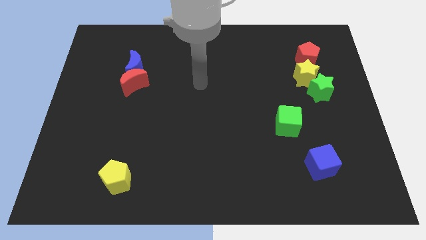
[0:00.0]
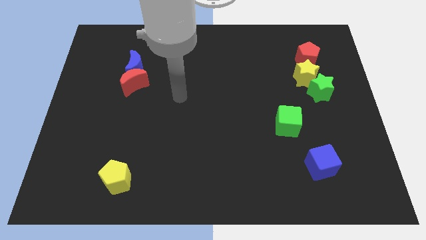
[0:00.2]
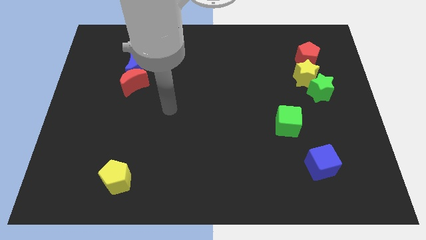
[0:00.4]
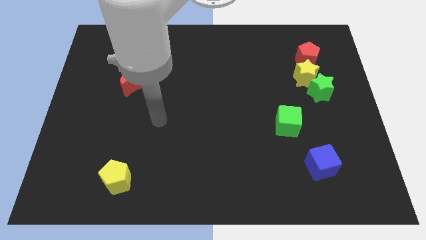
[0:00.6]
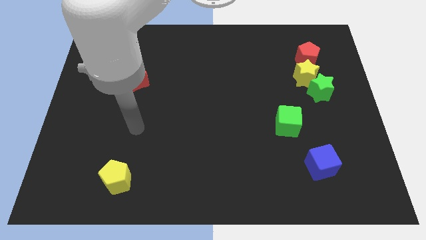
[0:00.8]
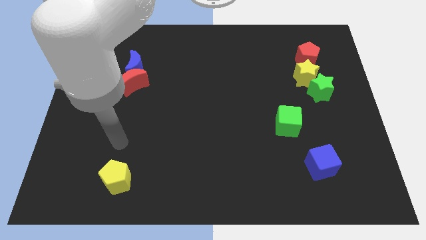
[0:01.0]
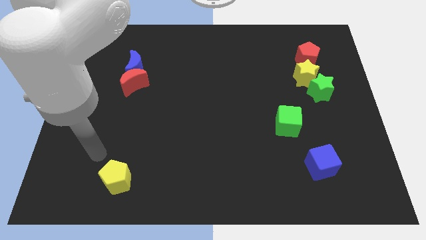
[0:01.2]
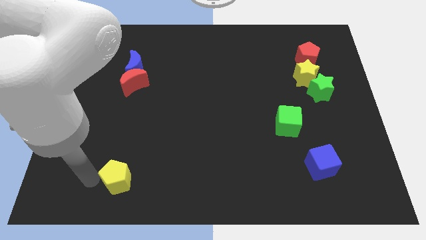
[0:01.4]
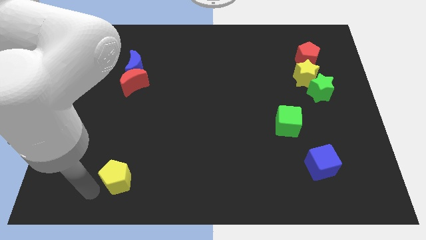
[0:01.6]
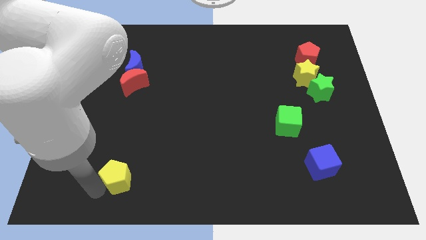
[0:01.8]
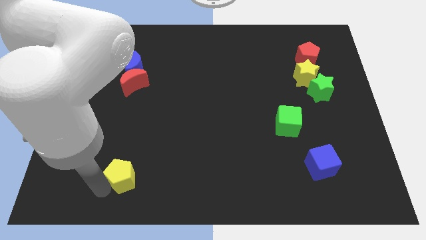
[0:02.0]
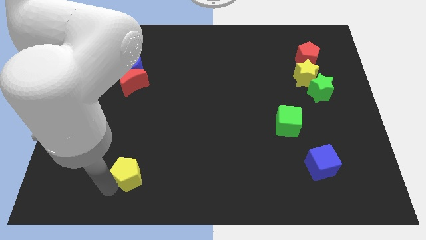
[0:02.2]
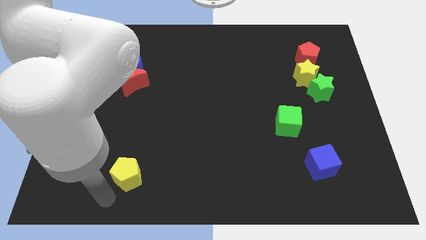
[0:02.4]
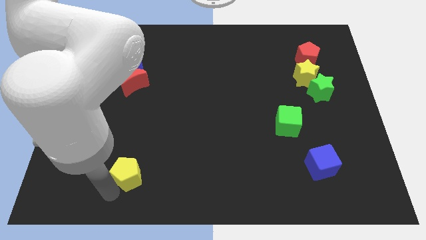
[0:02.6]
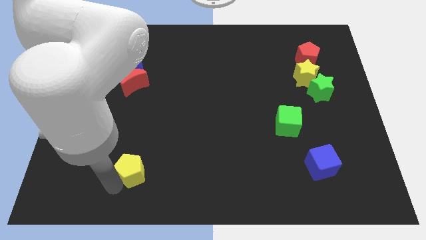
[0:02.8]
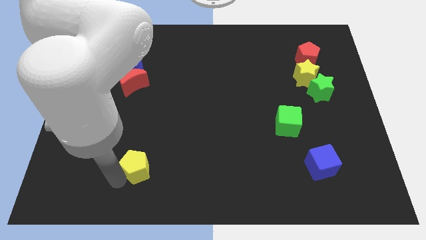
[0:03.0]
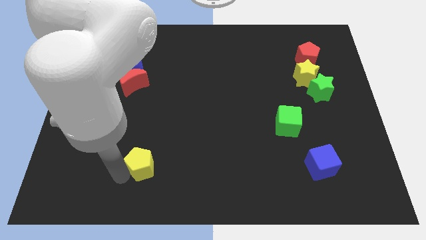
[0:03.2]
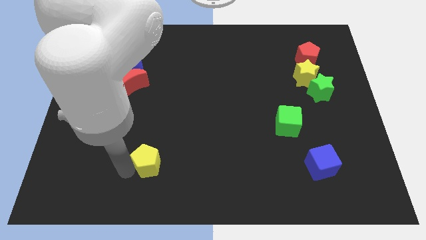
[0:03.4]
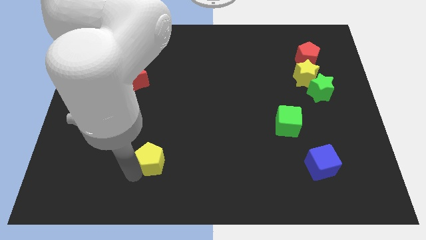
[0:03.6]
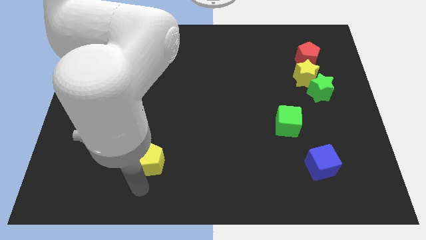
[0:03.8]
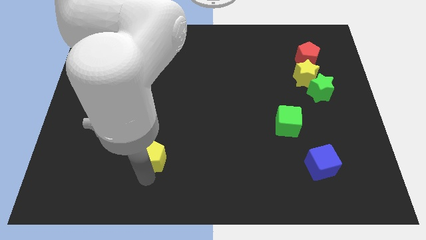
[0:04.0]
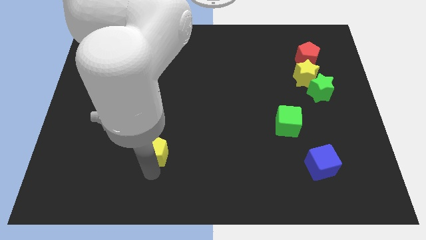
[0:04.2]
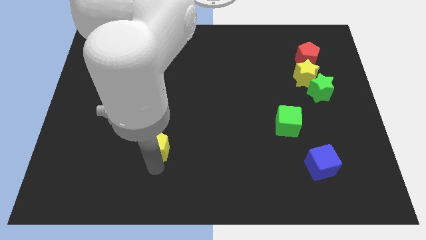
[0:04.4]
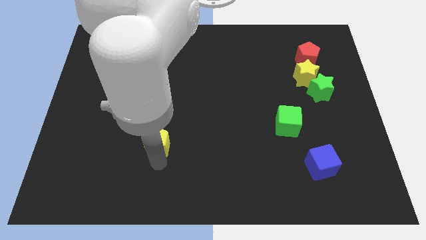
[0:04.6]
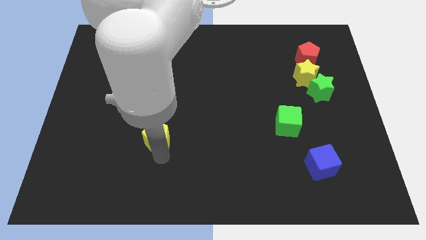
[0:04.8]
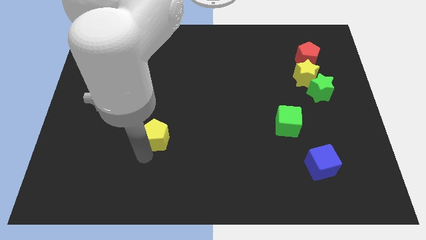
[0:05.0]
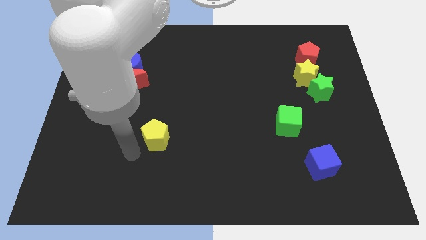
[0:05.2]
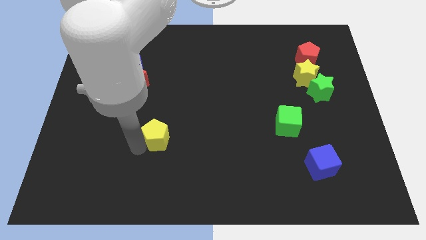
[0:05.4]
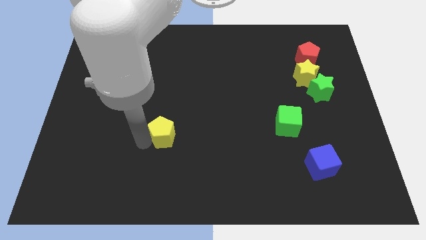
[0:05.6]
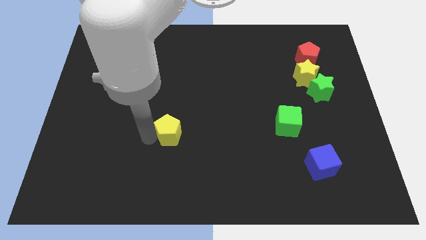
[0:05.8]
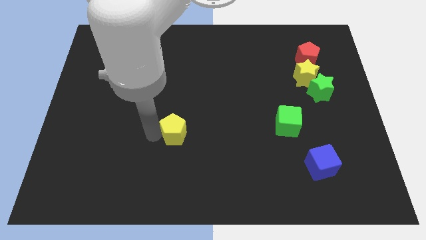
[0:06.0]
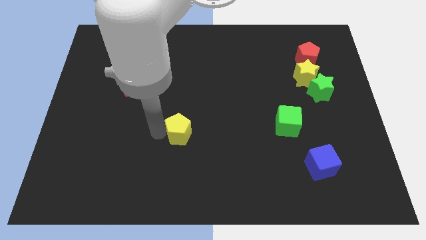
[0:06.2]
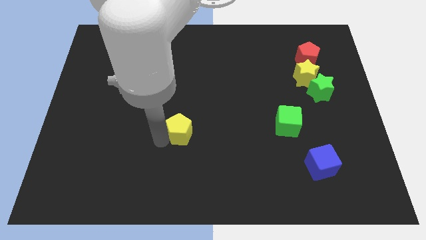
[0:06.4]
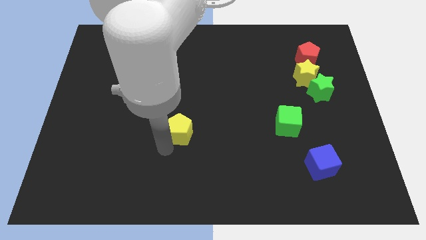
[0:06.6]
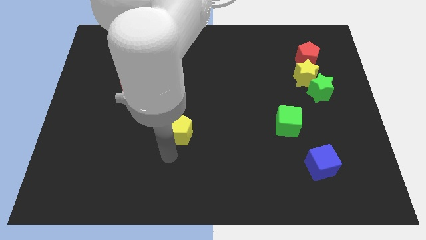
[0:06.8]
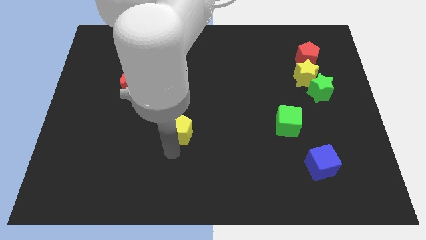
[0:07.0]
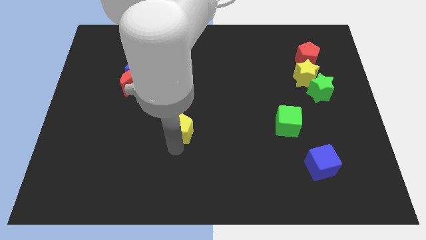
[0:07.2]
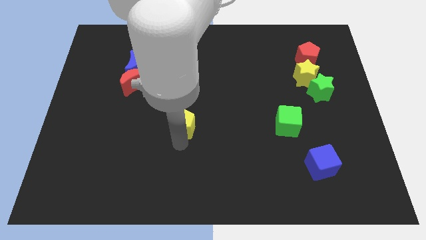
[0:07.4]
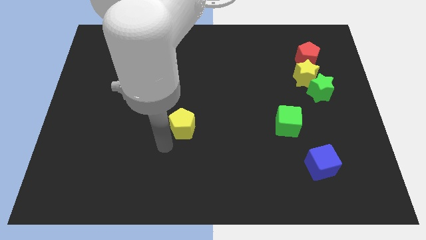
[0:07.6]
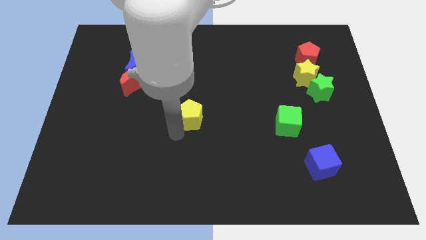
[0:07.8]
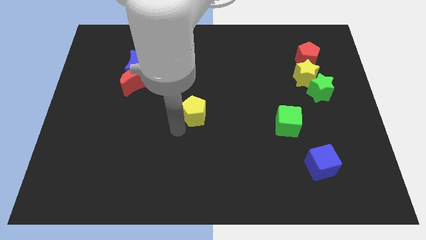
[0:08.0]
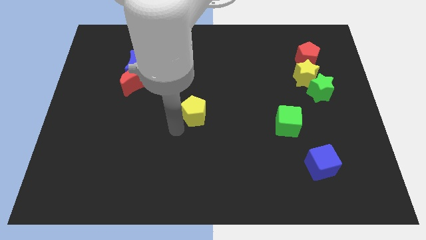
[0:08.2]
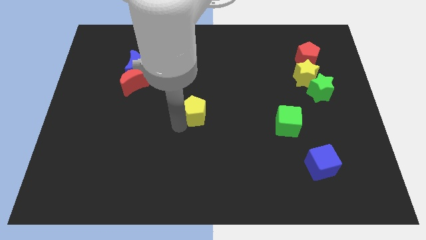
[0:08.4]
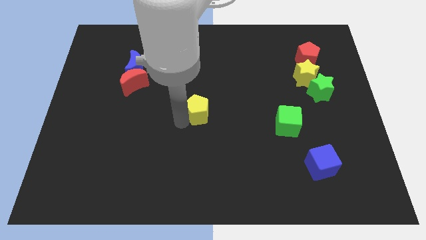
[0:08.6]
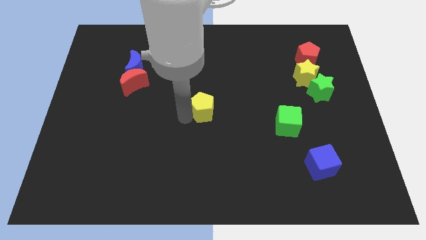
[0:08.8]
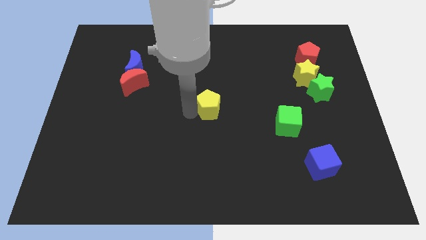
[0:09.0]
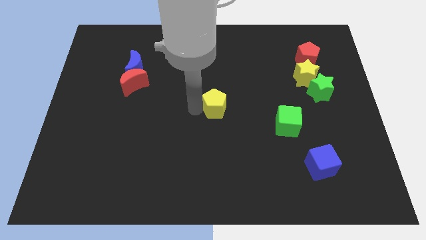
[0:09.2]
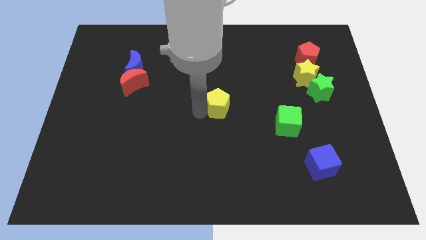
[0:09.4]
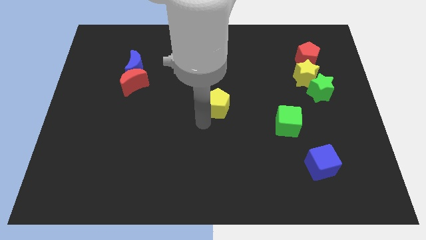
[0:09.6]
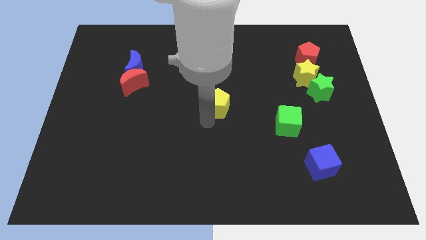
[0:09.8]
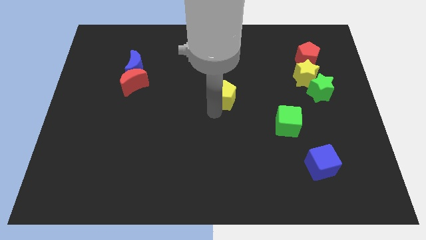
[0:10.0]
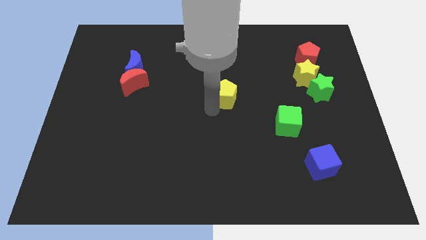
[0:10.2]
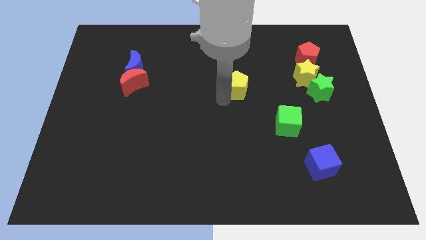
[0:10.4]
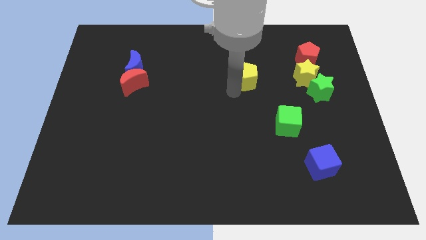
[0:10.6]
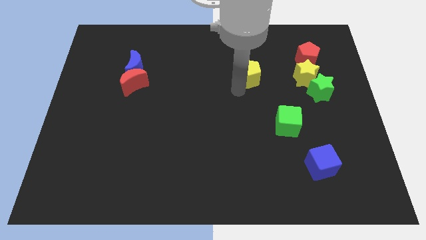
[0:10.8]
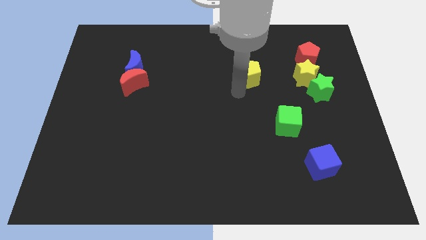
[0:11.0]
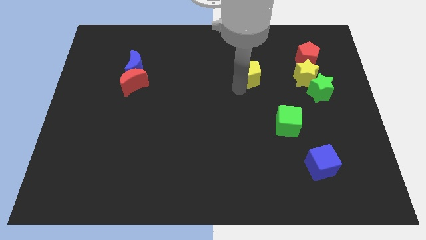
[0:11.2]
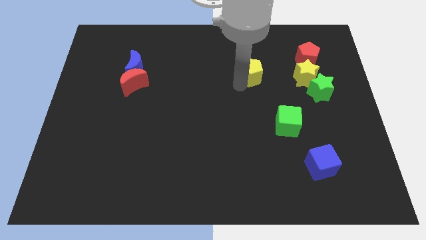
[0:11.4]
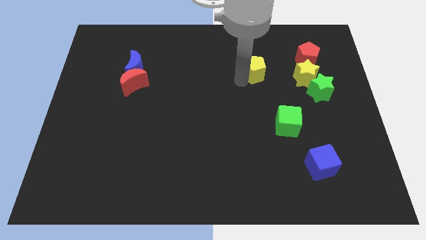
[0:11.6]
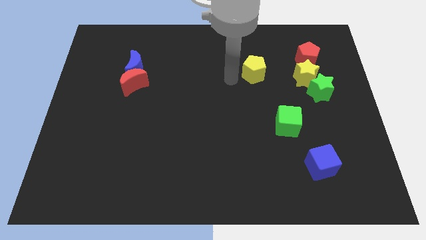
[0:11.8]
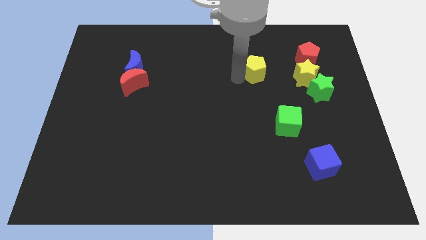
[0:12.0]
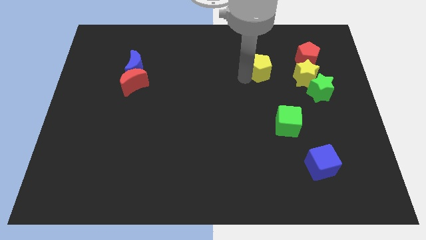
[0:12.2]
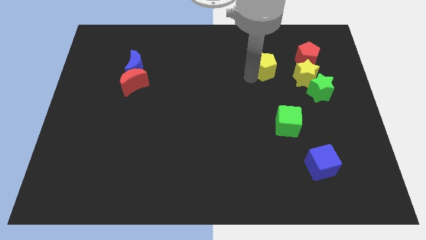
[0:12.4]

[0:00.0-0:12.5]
slide the yellow pentagon diagonally up and to the left of the yellow star

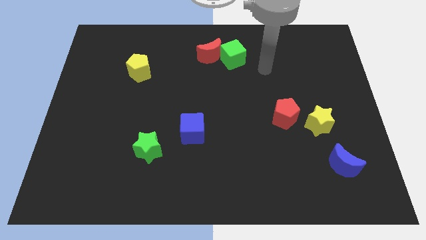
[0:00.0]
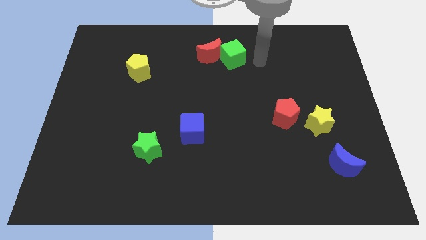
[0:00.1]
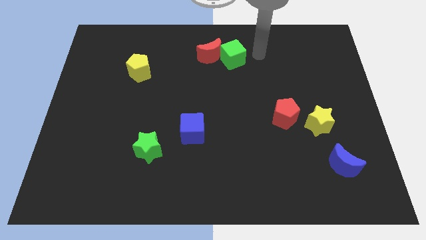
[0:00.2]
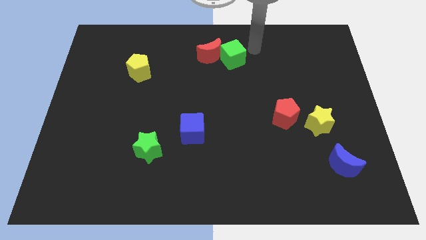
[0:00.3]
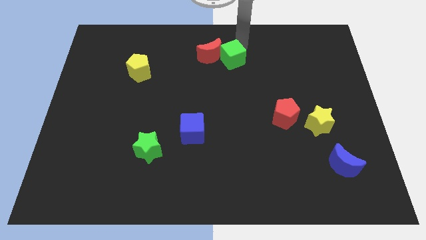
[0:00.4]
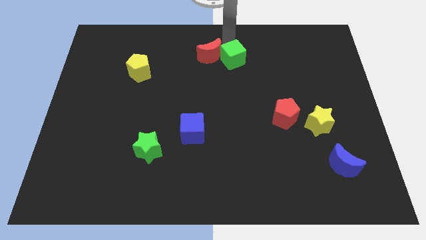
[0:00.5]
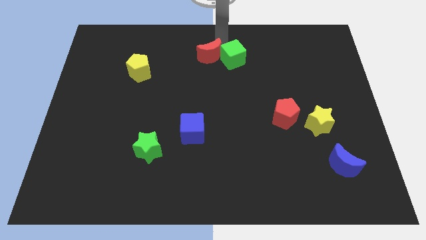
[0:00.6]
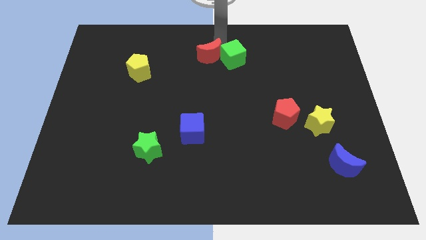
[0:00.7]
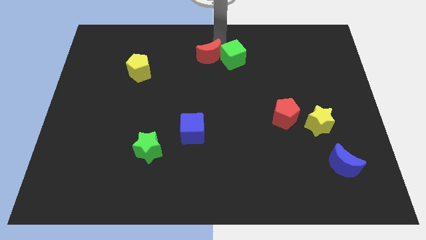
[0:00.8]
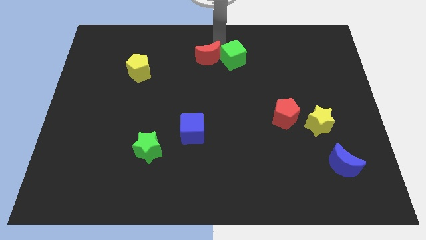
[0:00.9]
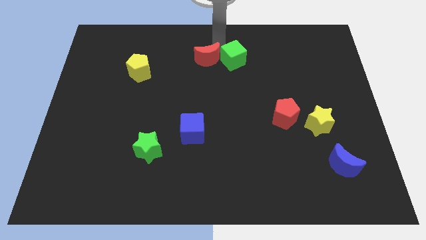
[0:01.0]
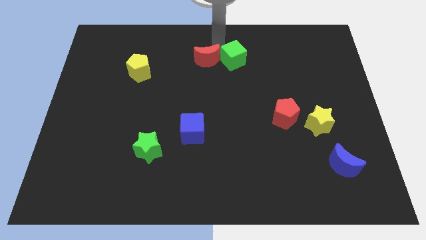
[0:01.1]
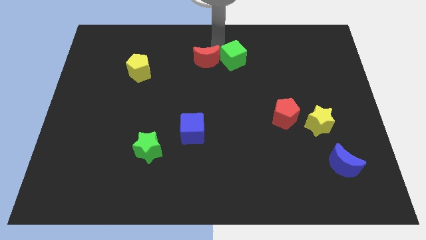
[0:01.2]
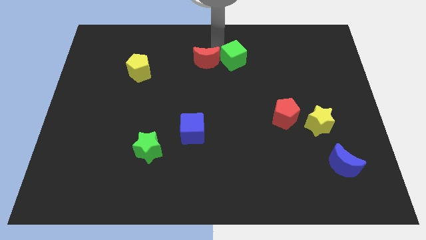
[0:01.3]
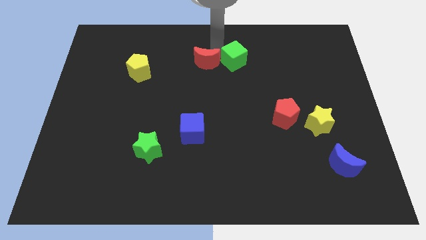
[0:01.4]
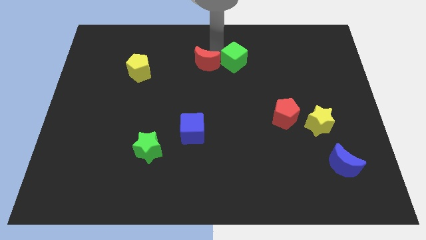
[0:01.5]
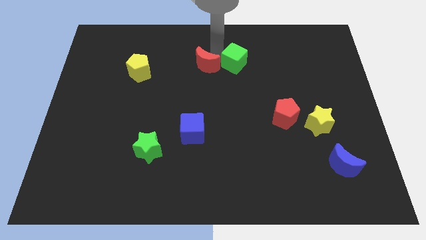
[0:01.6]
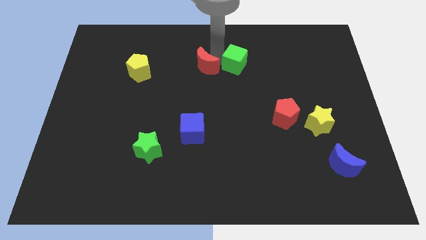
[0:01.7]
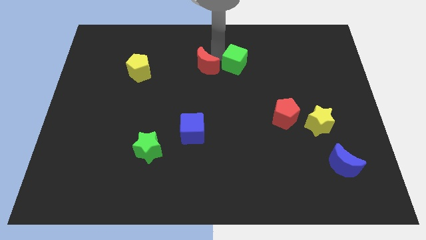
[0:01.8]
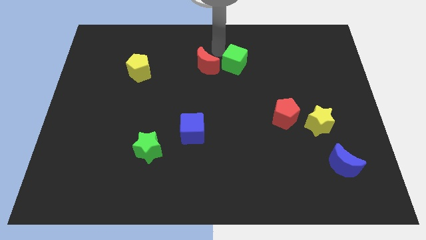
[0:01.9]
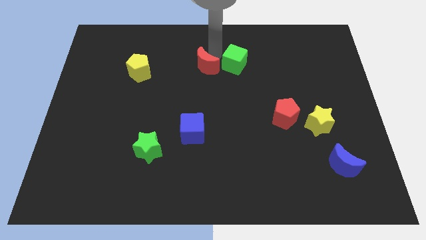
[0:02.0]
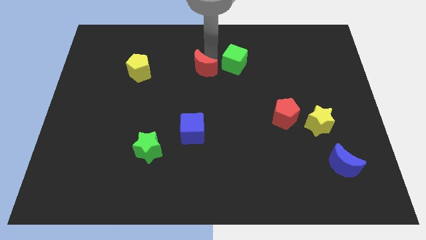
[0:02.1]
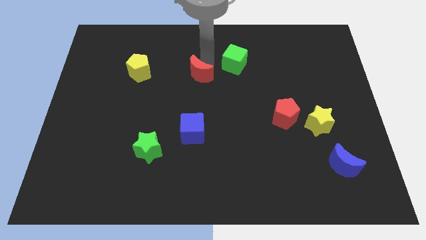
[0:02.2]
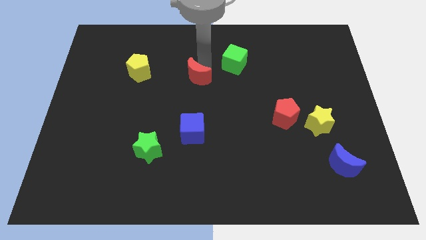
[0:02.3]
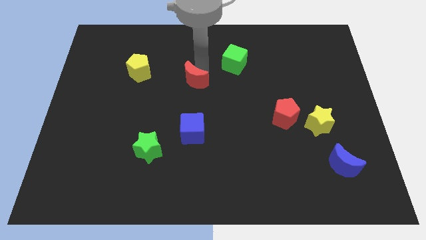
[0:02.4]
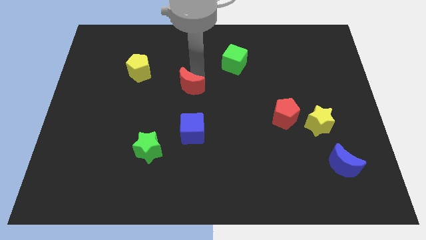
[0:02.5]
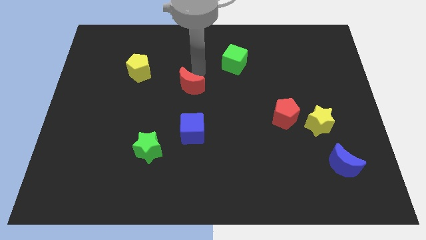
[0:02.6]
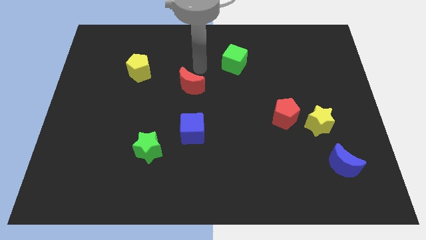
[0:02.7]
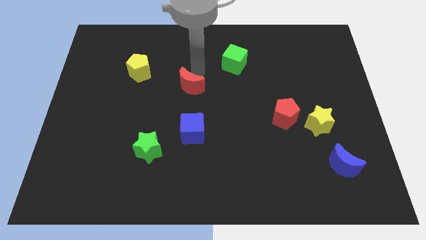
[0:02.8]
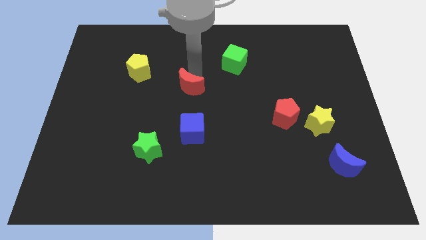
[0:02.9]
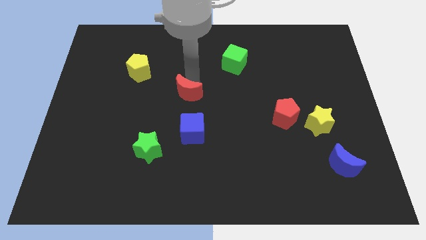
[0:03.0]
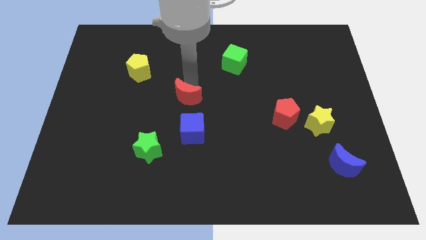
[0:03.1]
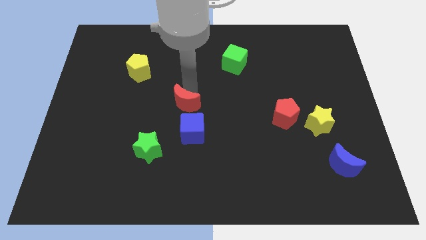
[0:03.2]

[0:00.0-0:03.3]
push the red moon to the top left of the blue cube
